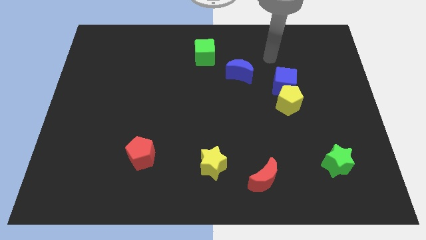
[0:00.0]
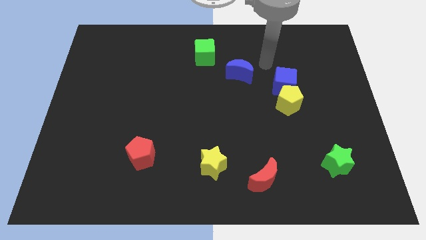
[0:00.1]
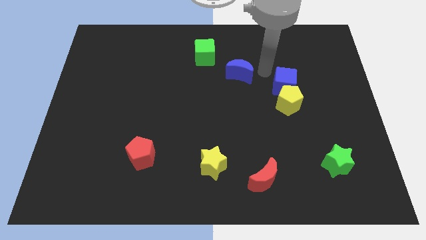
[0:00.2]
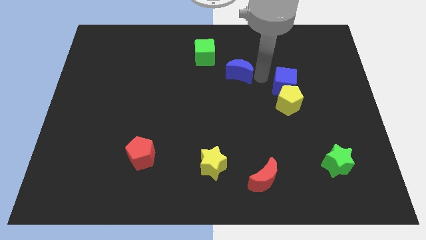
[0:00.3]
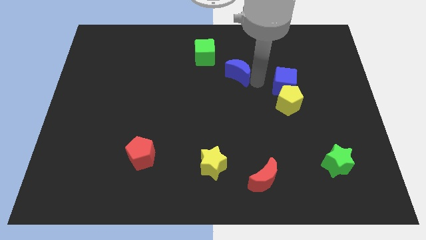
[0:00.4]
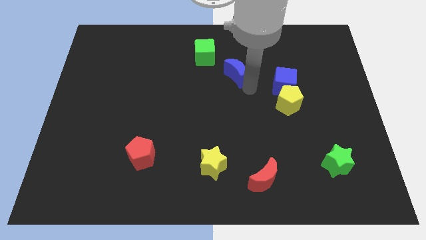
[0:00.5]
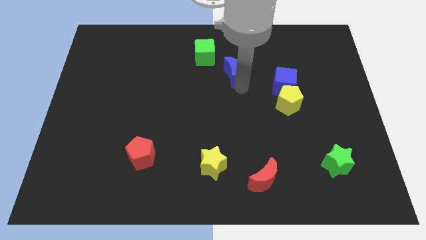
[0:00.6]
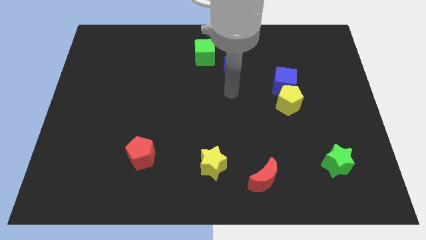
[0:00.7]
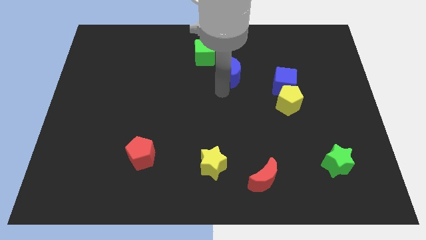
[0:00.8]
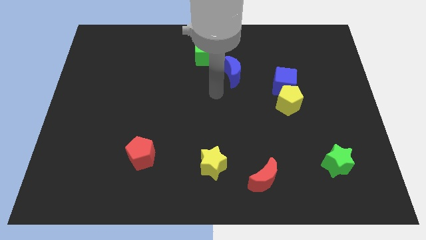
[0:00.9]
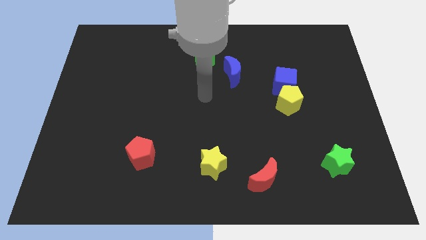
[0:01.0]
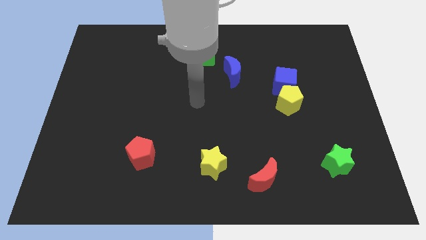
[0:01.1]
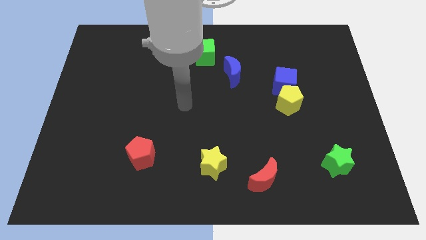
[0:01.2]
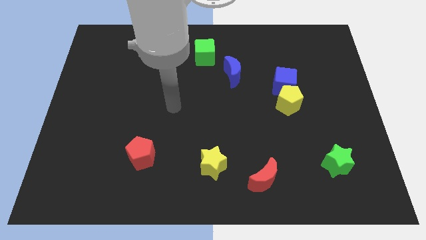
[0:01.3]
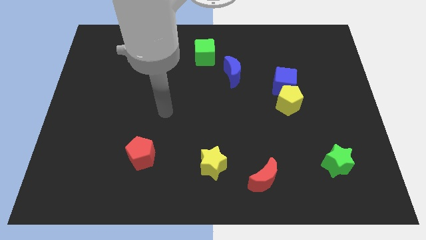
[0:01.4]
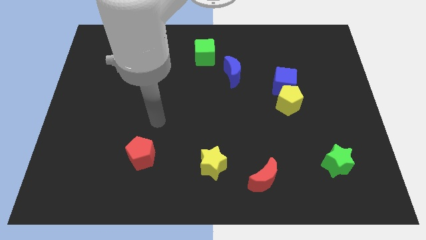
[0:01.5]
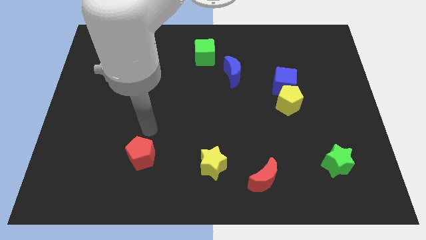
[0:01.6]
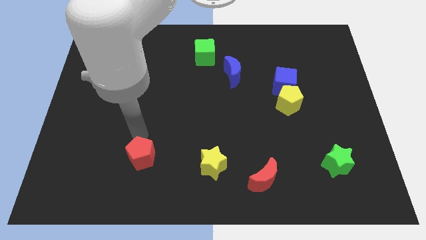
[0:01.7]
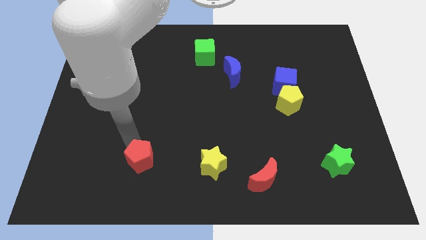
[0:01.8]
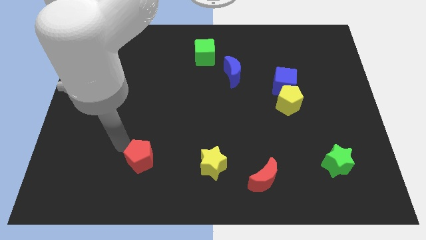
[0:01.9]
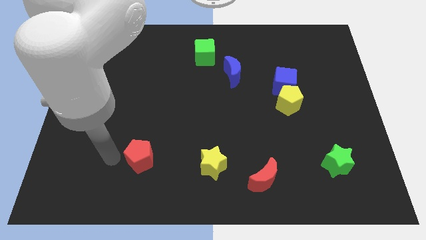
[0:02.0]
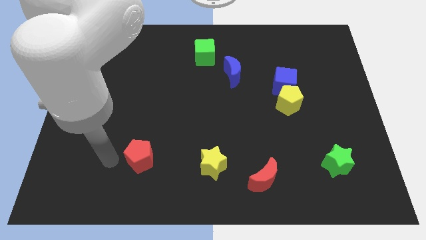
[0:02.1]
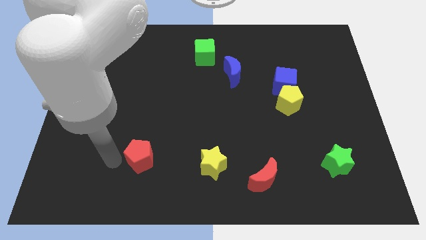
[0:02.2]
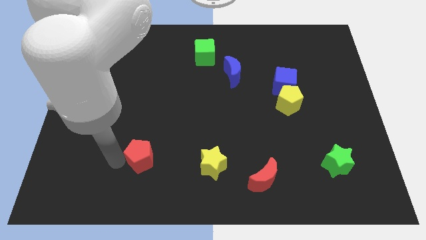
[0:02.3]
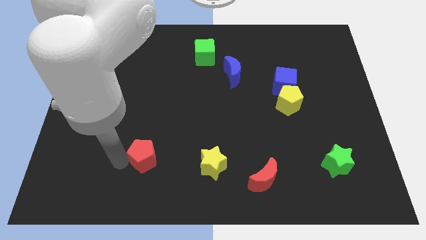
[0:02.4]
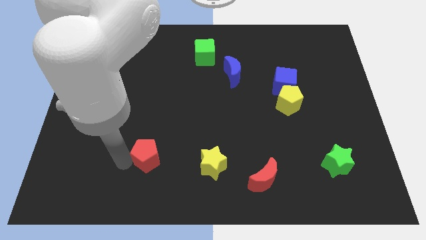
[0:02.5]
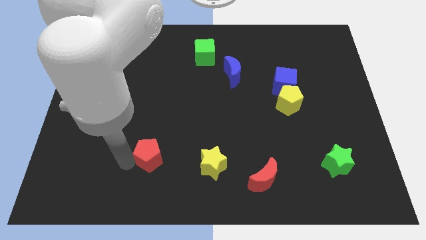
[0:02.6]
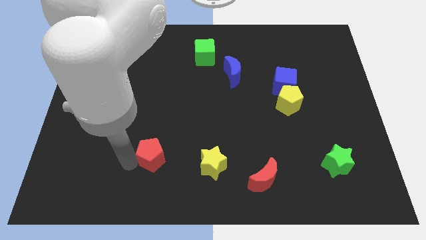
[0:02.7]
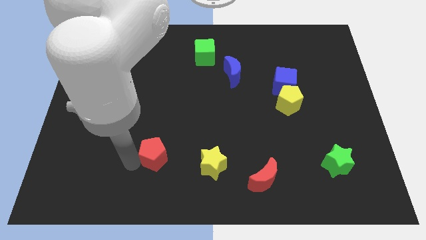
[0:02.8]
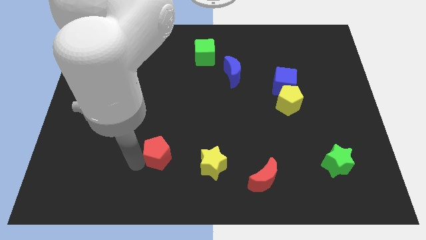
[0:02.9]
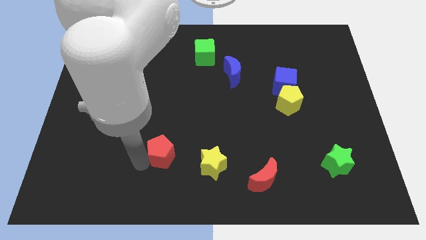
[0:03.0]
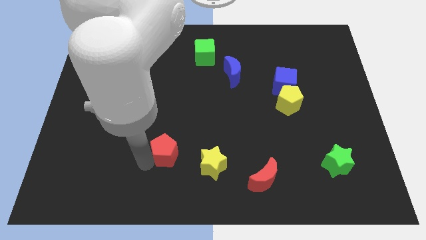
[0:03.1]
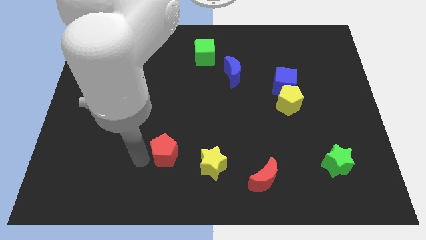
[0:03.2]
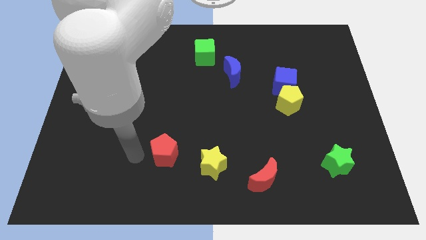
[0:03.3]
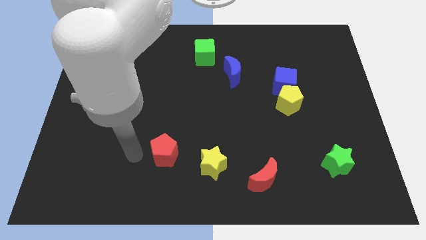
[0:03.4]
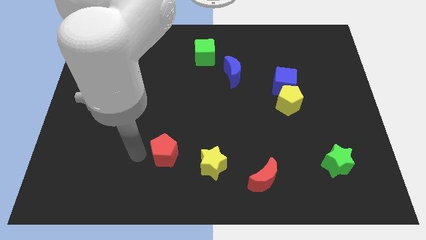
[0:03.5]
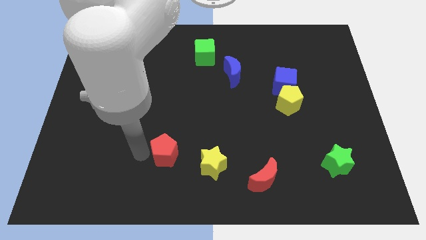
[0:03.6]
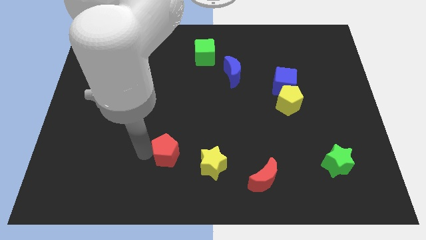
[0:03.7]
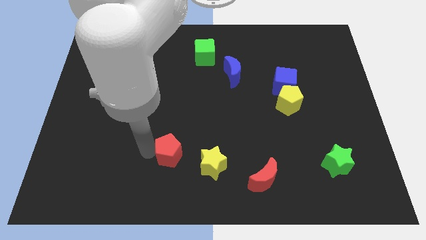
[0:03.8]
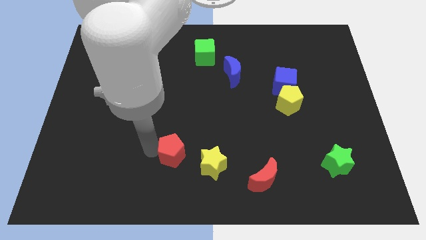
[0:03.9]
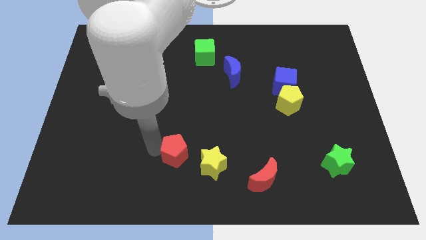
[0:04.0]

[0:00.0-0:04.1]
move the red pentagon to the right somewhat

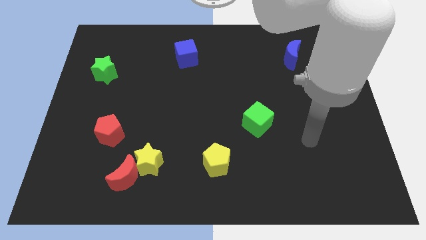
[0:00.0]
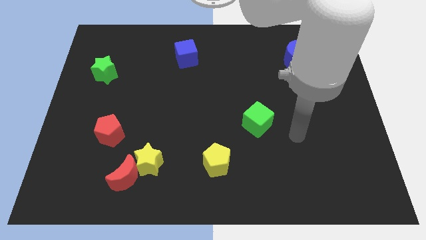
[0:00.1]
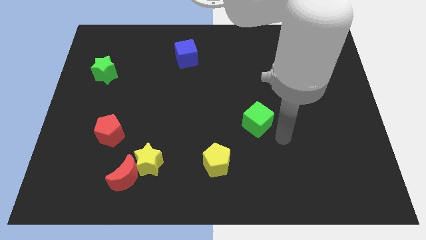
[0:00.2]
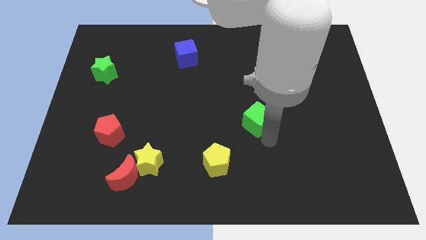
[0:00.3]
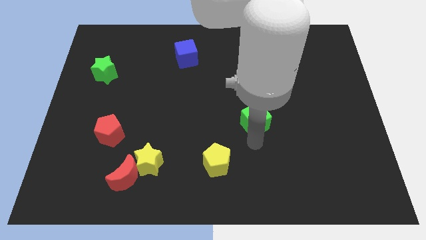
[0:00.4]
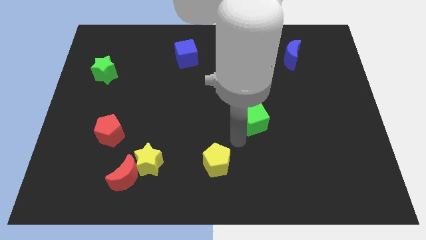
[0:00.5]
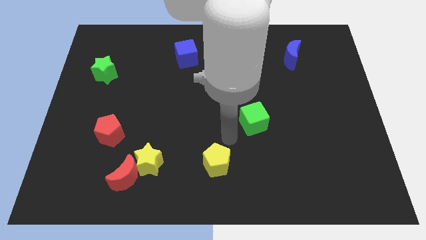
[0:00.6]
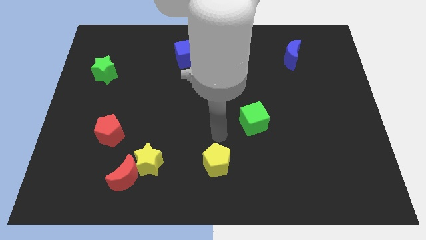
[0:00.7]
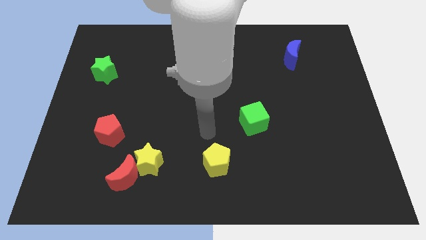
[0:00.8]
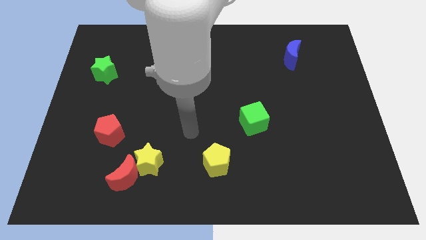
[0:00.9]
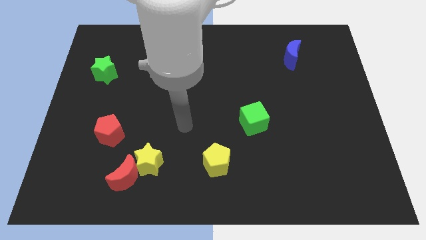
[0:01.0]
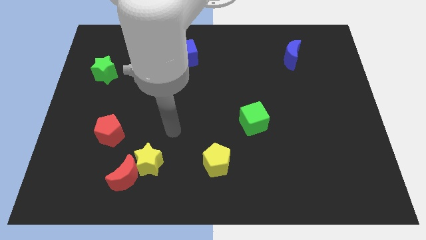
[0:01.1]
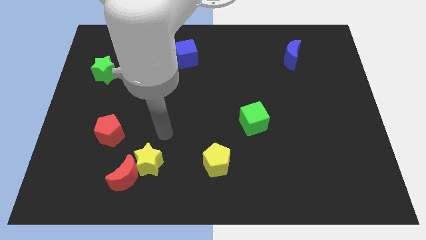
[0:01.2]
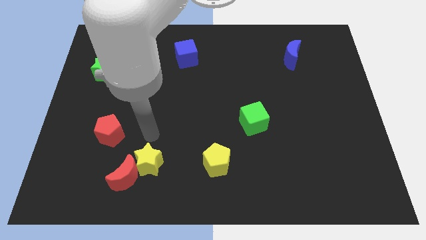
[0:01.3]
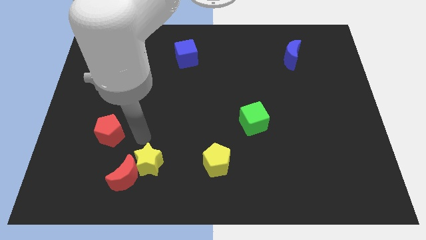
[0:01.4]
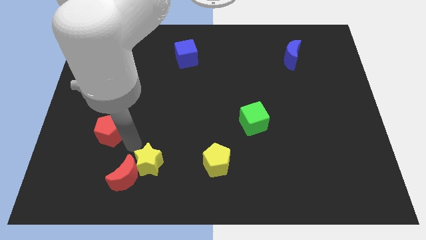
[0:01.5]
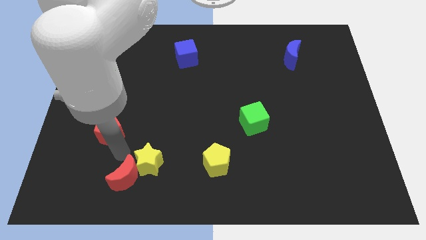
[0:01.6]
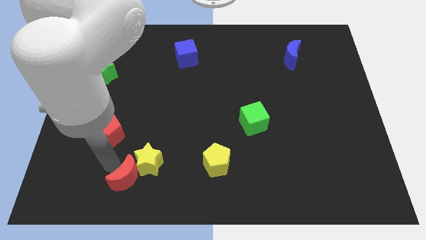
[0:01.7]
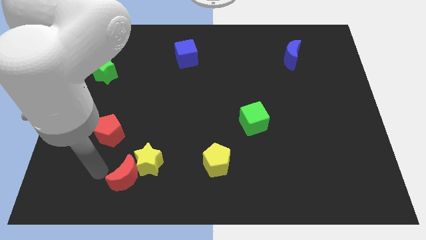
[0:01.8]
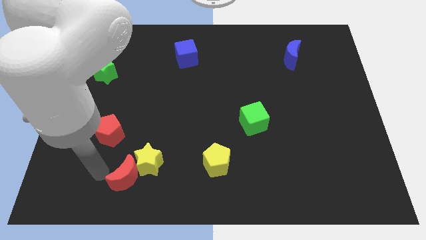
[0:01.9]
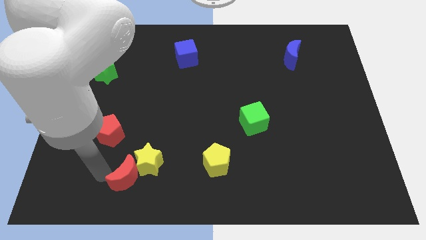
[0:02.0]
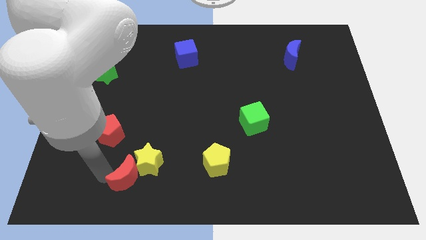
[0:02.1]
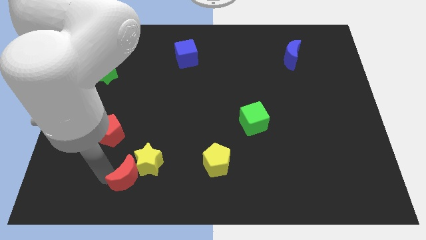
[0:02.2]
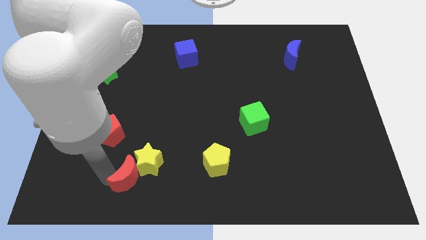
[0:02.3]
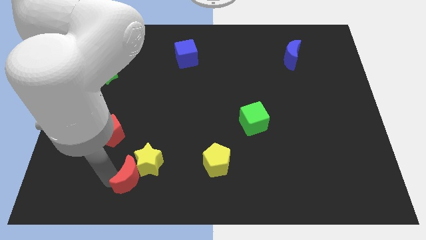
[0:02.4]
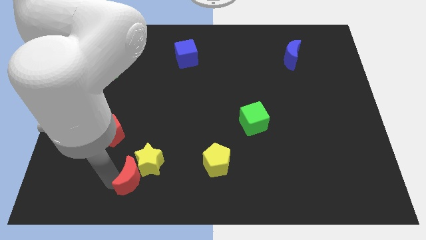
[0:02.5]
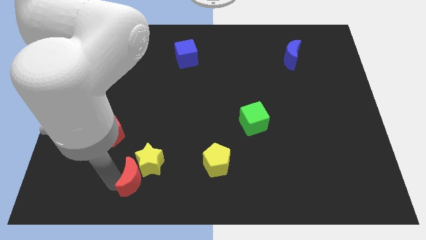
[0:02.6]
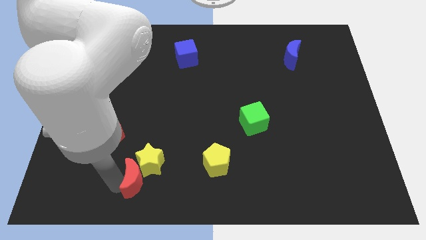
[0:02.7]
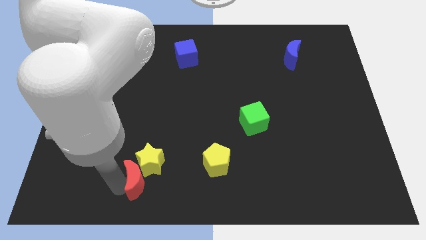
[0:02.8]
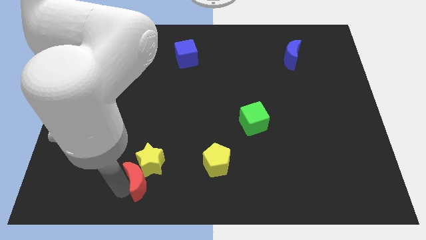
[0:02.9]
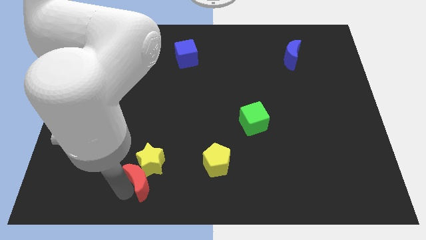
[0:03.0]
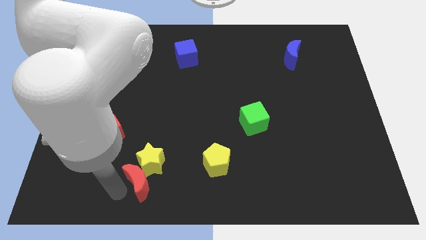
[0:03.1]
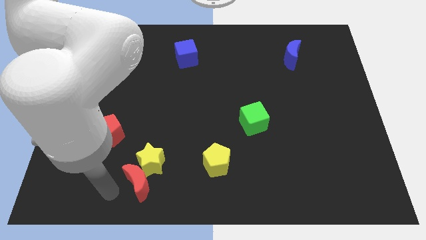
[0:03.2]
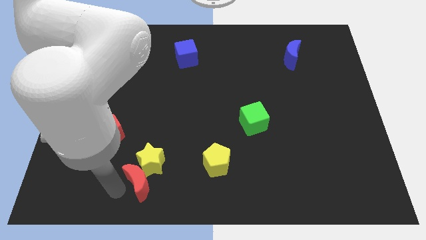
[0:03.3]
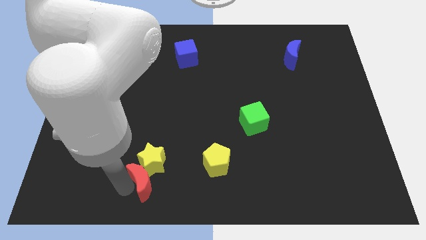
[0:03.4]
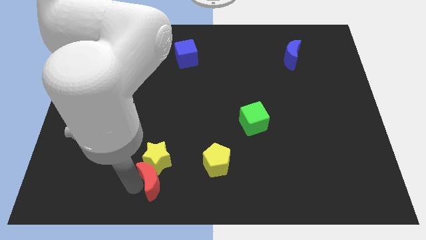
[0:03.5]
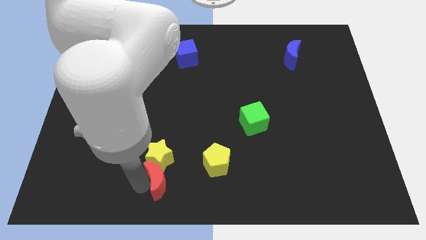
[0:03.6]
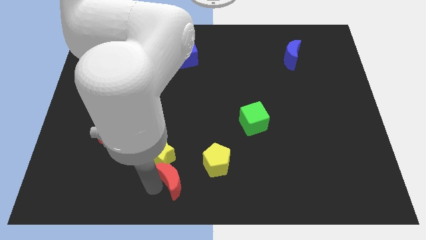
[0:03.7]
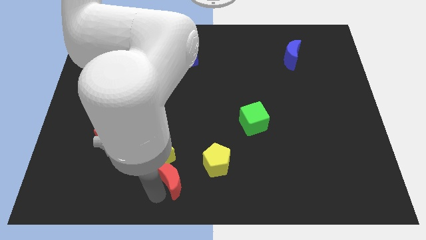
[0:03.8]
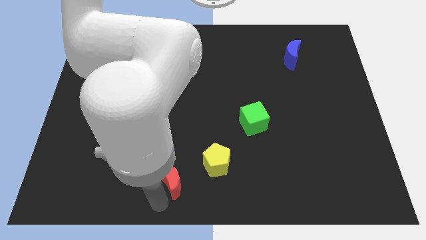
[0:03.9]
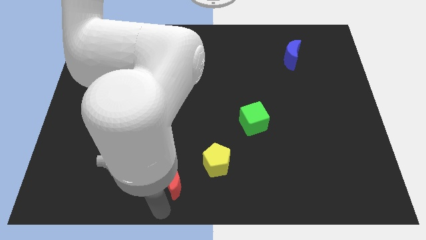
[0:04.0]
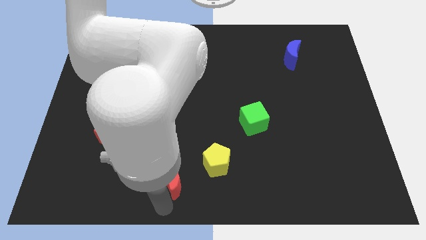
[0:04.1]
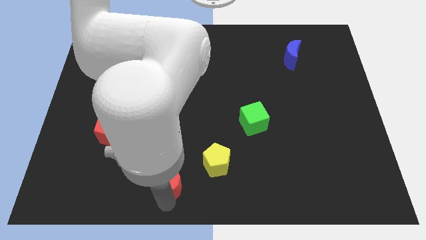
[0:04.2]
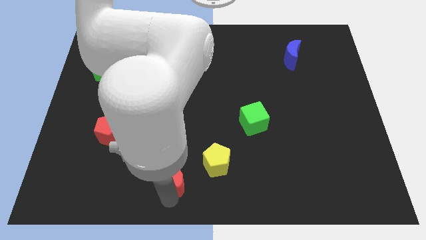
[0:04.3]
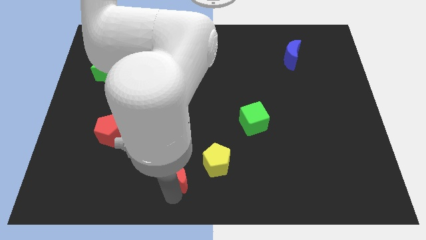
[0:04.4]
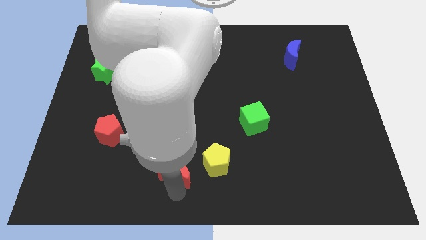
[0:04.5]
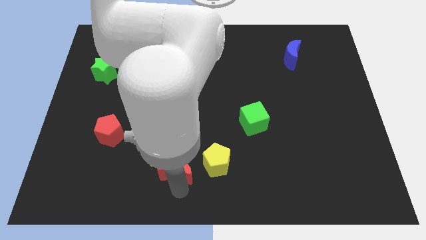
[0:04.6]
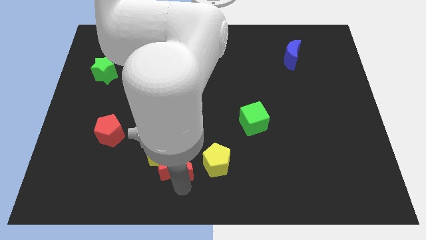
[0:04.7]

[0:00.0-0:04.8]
slightly slide the red moon up and right diagonally
